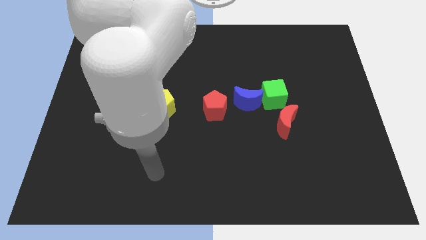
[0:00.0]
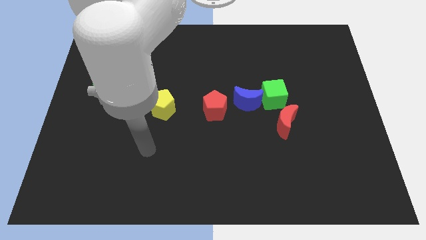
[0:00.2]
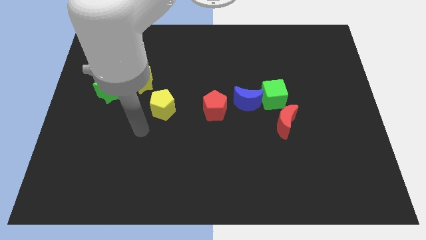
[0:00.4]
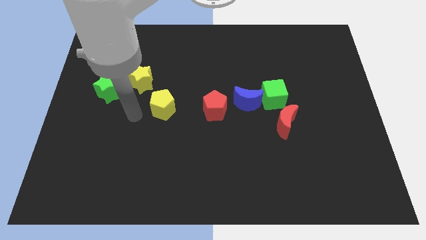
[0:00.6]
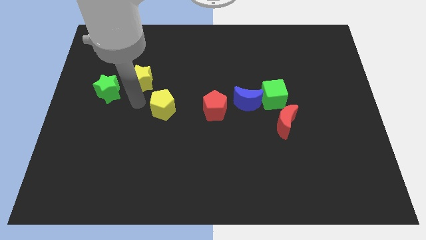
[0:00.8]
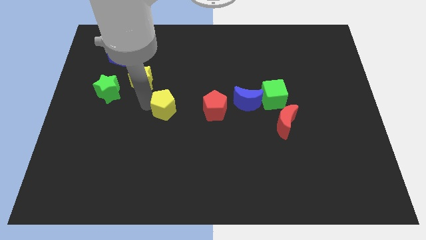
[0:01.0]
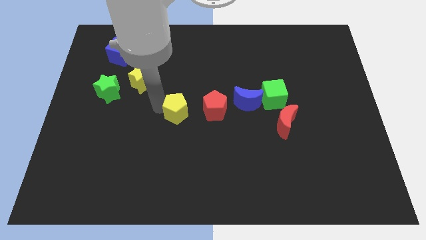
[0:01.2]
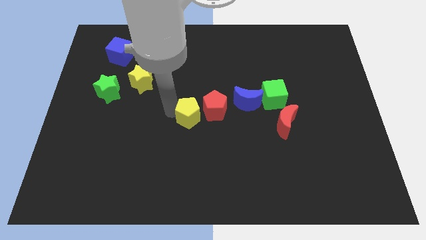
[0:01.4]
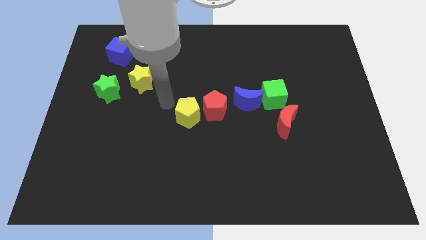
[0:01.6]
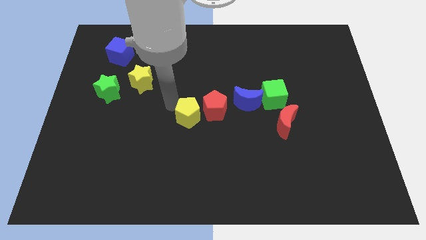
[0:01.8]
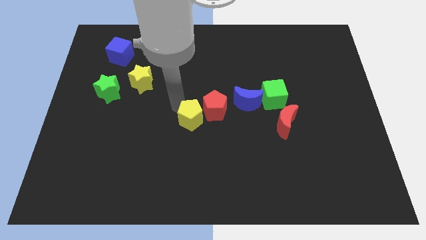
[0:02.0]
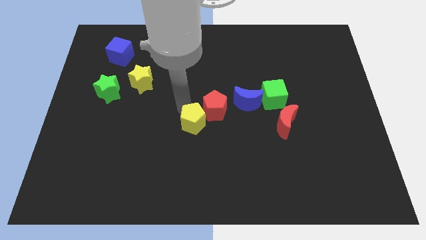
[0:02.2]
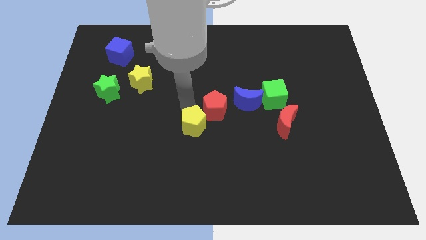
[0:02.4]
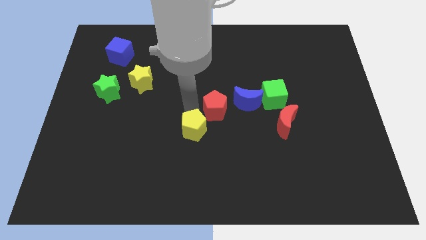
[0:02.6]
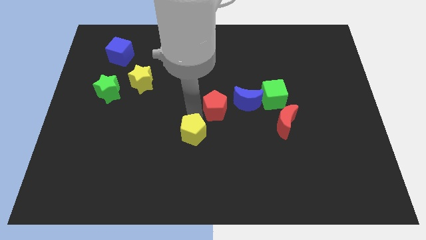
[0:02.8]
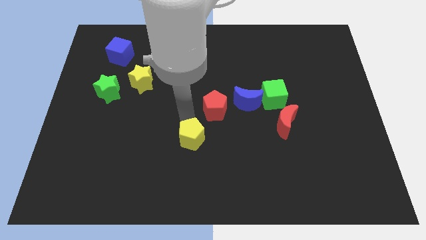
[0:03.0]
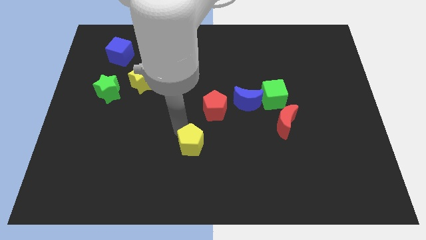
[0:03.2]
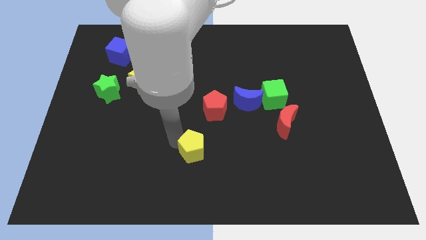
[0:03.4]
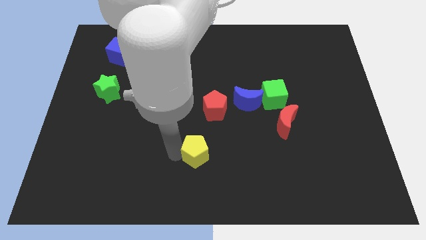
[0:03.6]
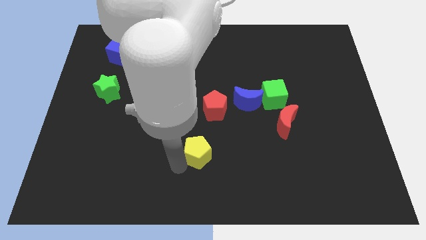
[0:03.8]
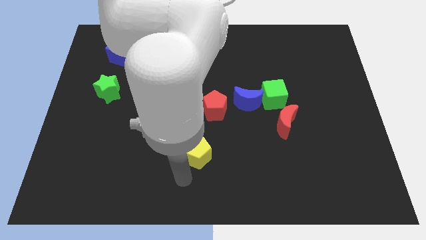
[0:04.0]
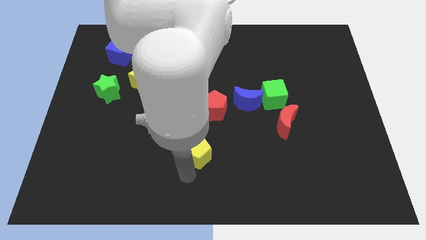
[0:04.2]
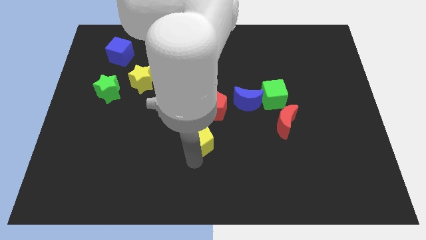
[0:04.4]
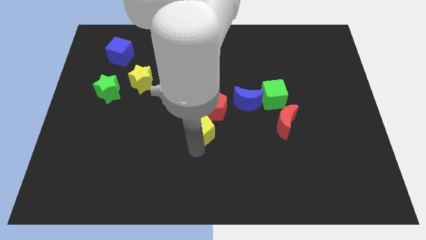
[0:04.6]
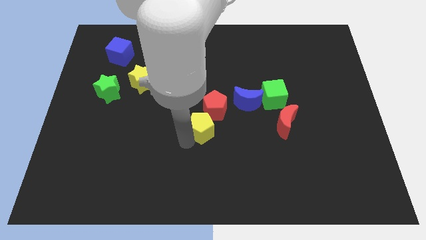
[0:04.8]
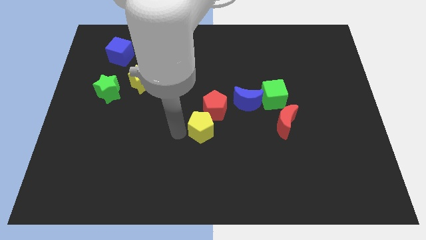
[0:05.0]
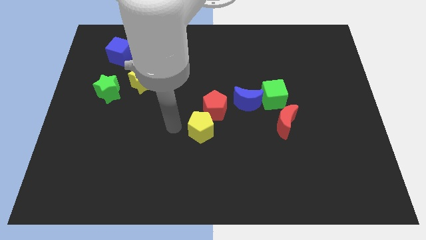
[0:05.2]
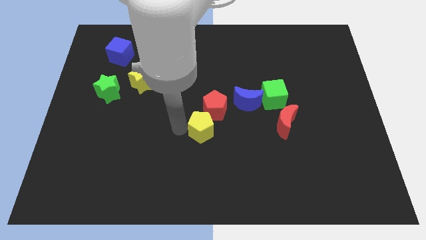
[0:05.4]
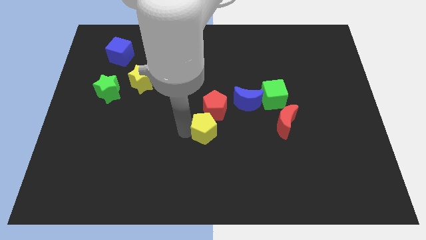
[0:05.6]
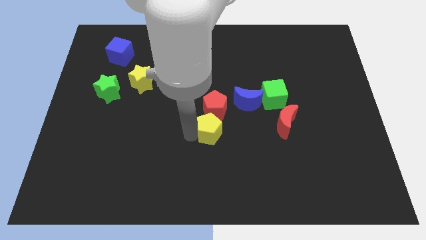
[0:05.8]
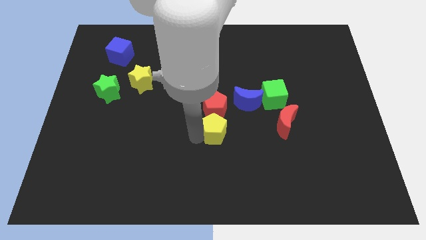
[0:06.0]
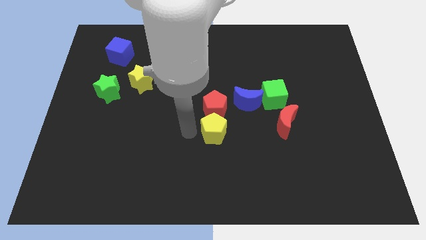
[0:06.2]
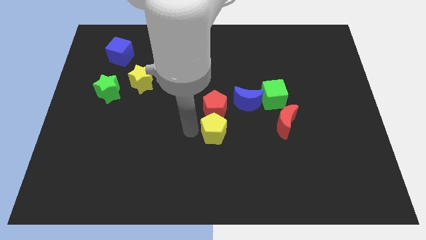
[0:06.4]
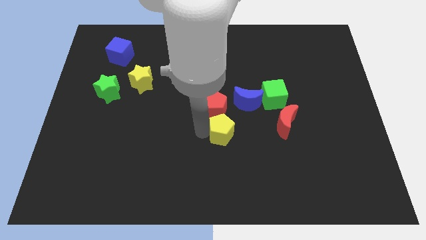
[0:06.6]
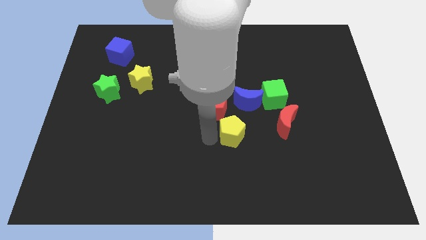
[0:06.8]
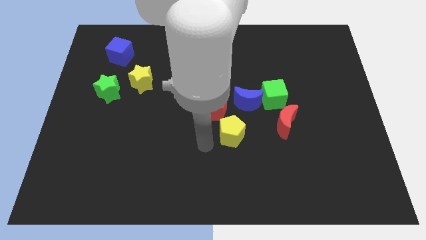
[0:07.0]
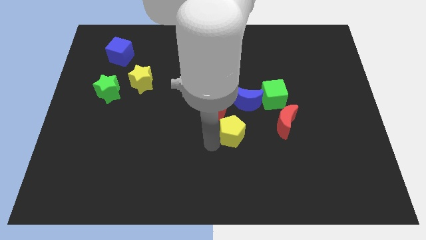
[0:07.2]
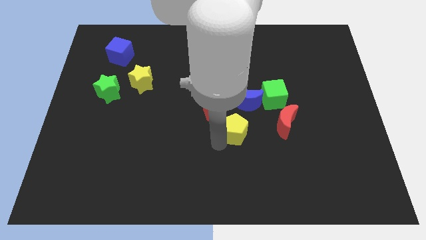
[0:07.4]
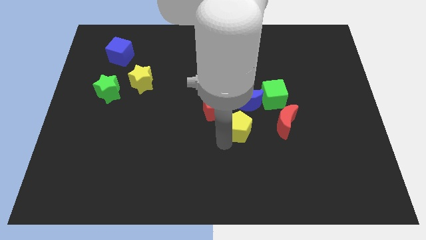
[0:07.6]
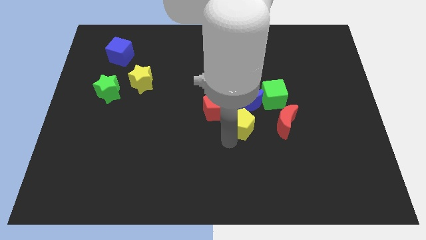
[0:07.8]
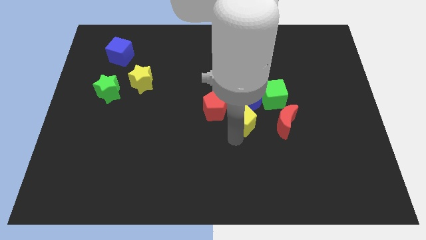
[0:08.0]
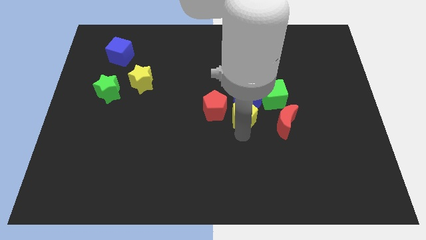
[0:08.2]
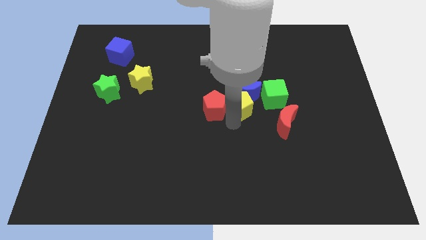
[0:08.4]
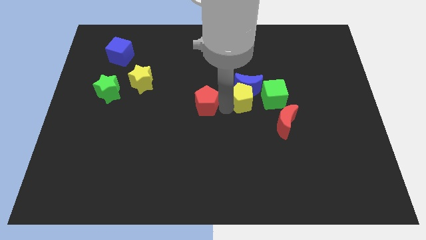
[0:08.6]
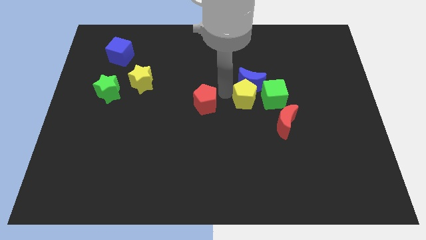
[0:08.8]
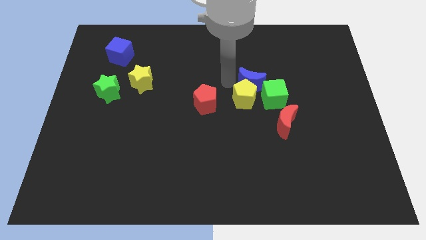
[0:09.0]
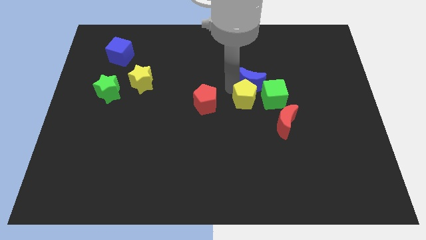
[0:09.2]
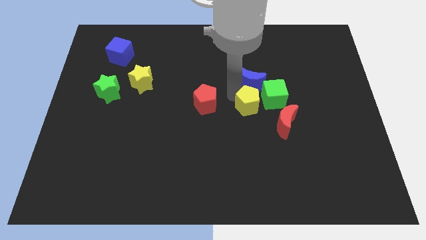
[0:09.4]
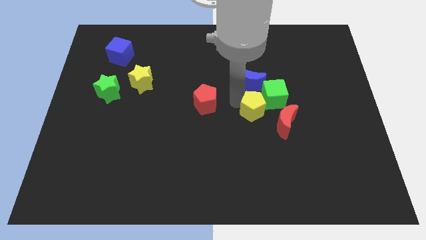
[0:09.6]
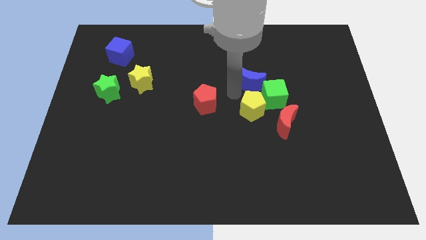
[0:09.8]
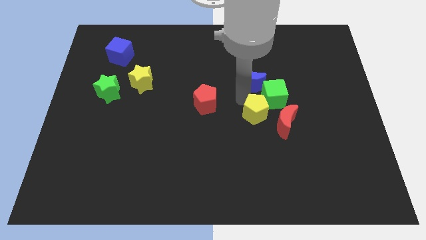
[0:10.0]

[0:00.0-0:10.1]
move the yellow pentagon to the bottom of the green cube

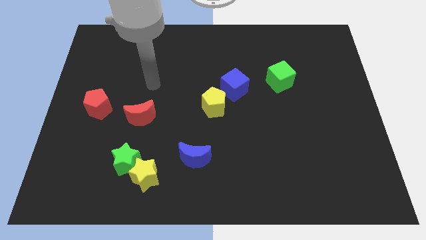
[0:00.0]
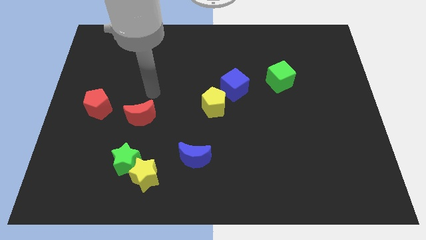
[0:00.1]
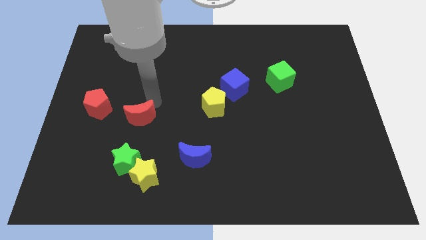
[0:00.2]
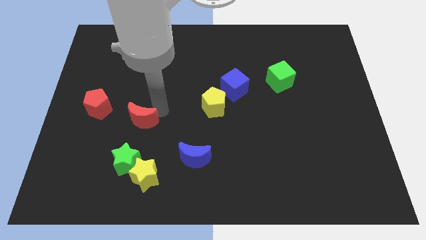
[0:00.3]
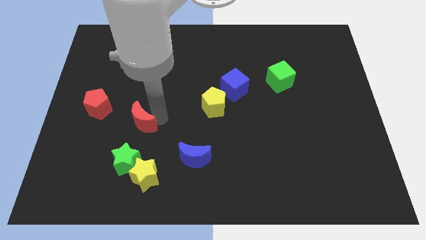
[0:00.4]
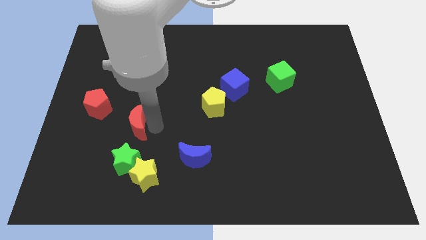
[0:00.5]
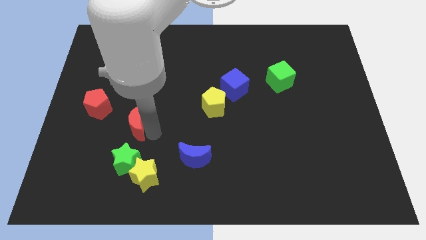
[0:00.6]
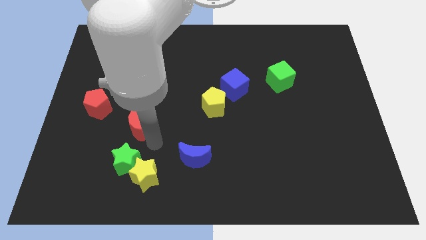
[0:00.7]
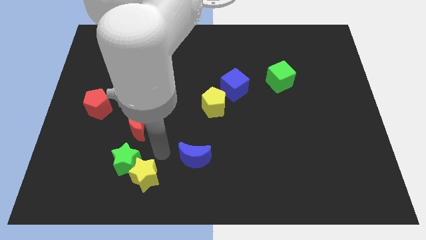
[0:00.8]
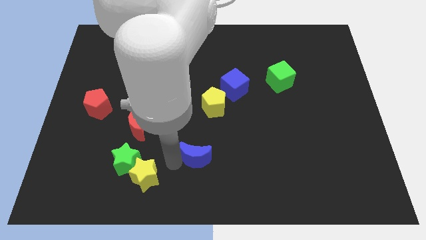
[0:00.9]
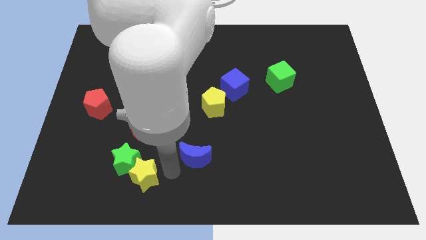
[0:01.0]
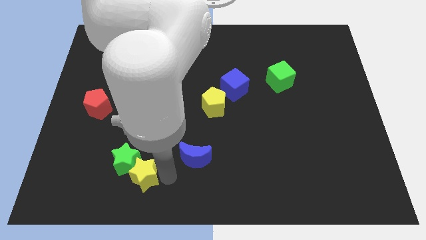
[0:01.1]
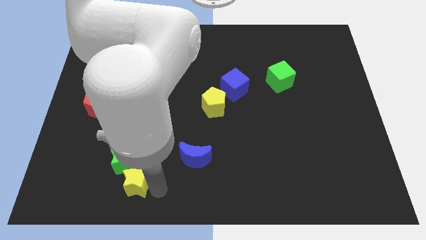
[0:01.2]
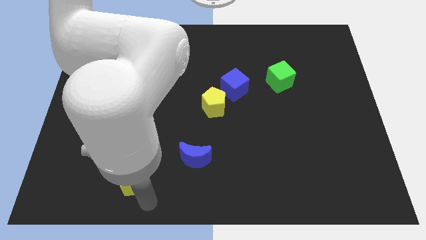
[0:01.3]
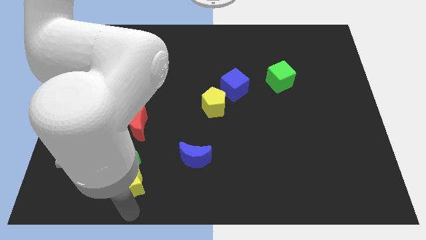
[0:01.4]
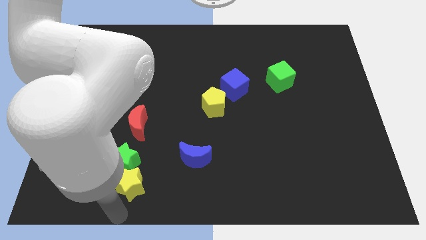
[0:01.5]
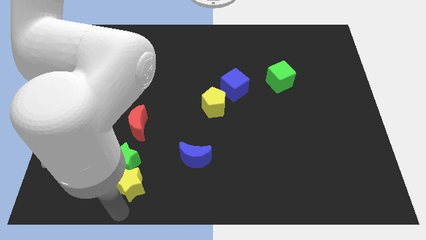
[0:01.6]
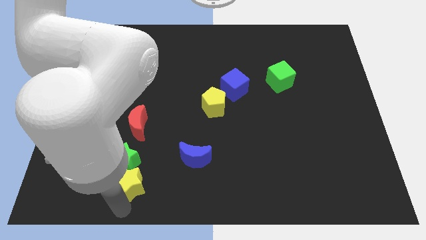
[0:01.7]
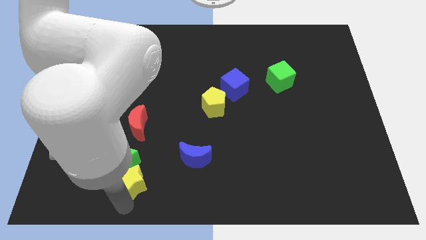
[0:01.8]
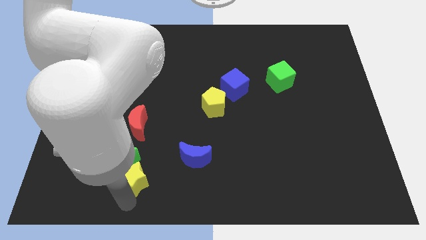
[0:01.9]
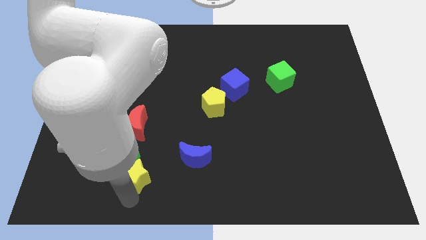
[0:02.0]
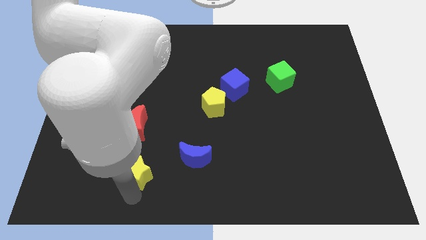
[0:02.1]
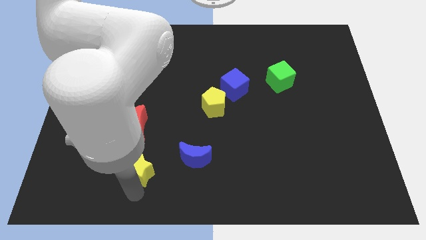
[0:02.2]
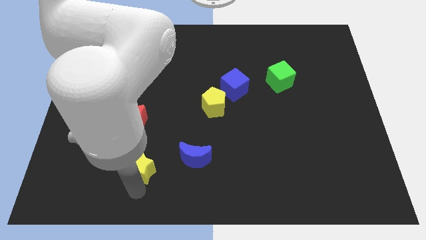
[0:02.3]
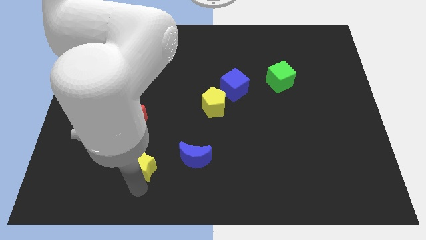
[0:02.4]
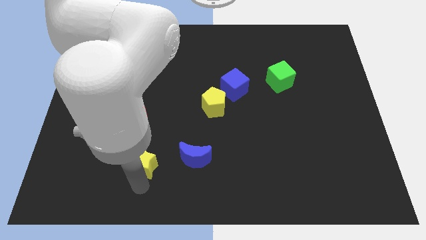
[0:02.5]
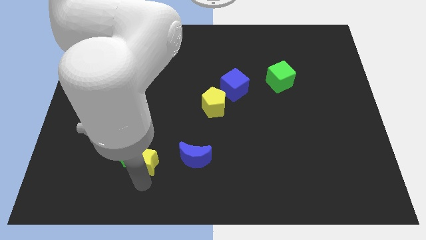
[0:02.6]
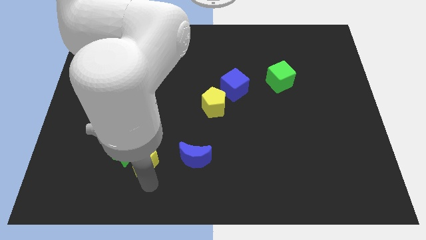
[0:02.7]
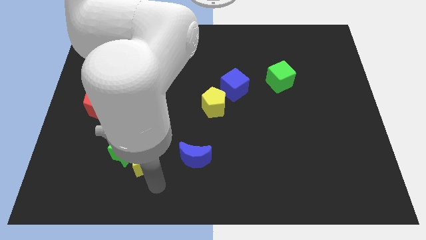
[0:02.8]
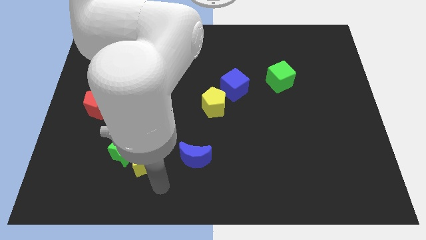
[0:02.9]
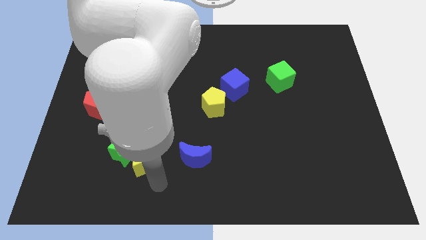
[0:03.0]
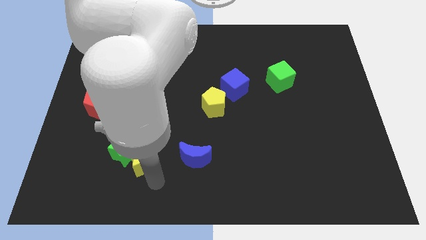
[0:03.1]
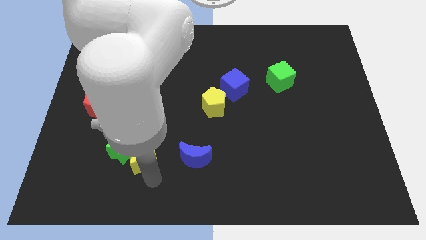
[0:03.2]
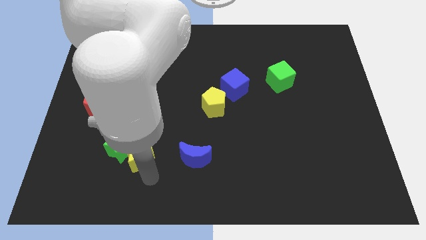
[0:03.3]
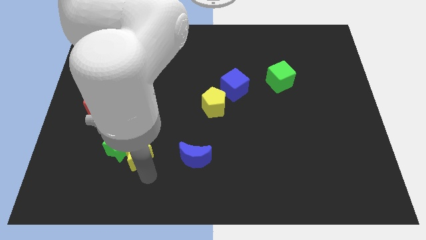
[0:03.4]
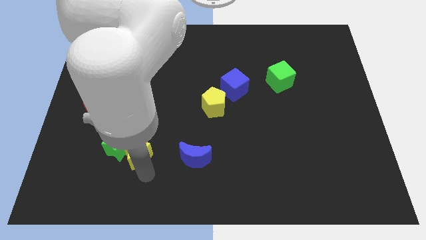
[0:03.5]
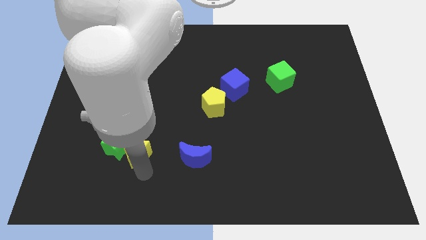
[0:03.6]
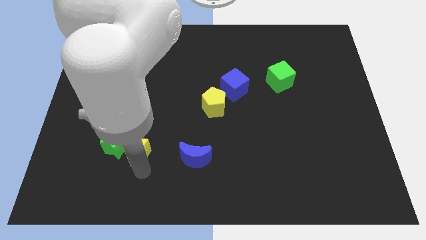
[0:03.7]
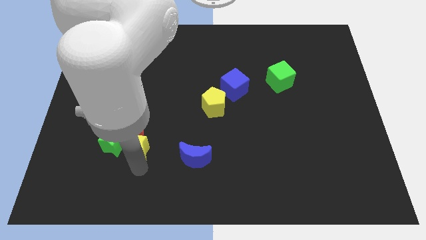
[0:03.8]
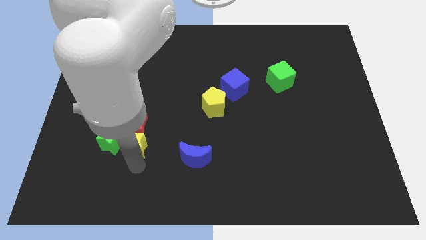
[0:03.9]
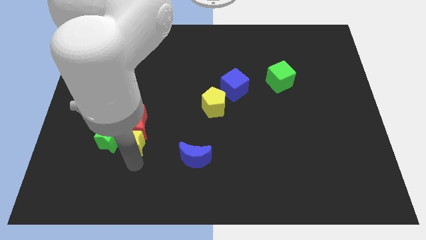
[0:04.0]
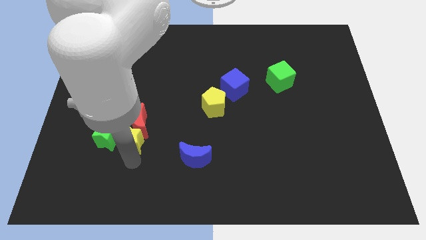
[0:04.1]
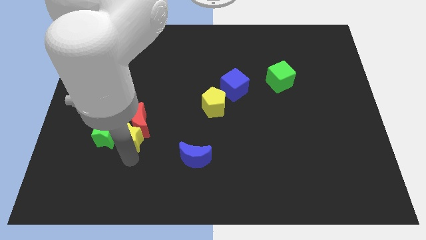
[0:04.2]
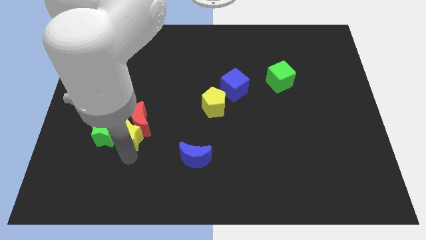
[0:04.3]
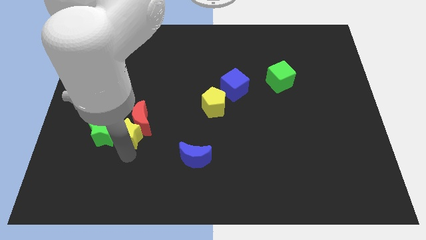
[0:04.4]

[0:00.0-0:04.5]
push the yellow star to the left of the red moon
